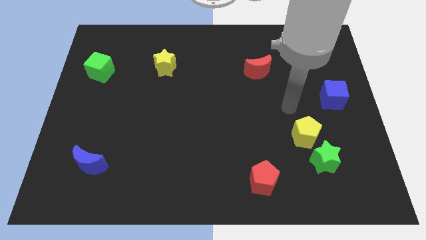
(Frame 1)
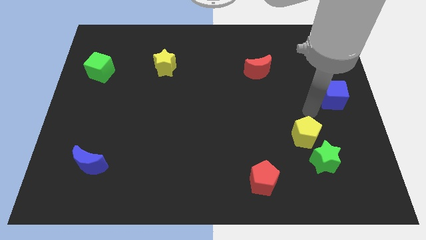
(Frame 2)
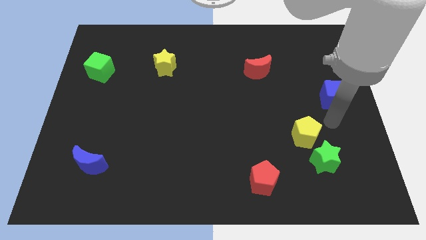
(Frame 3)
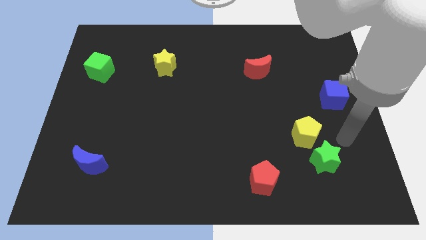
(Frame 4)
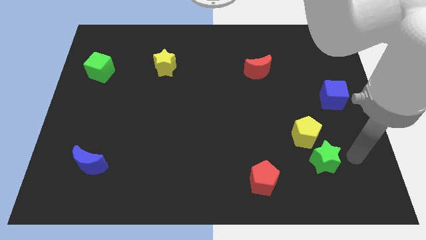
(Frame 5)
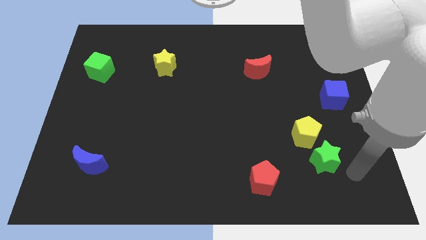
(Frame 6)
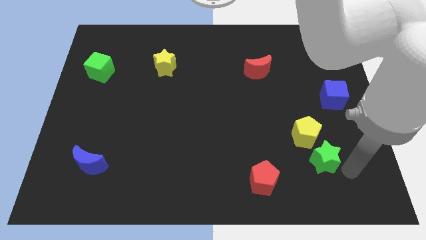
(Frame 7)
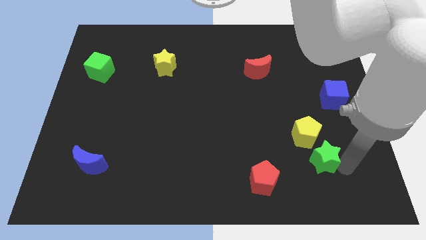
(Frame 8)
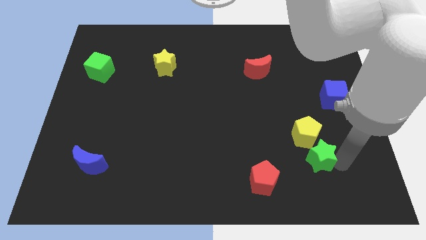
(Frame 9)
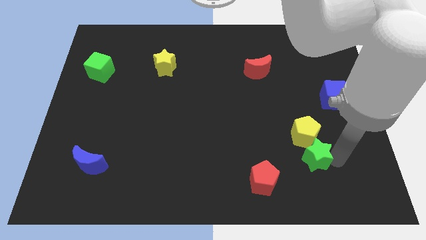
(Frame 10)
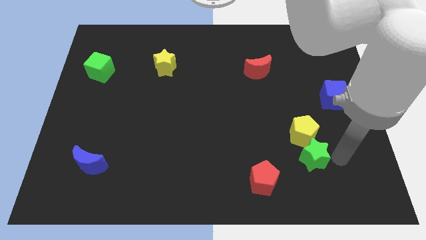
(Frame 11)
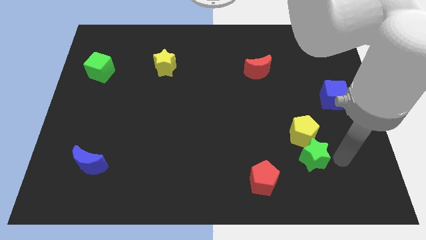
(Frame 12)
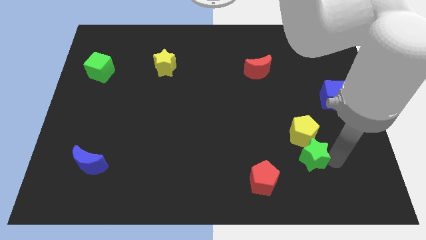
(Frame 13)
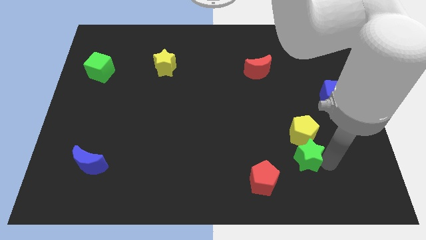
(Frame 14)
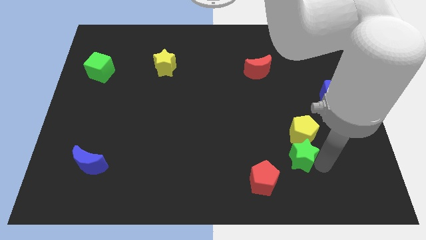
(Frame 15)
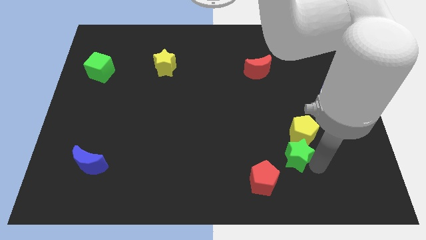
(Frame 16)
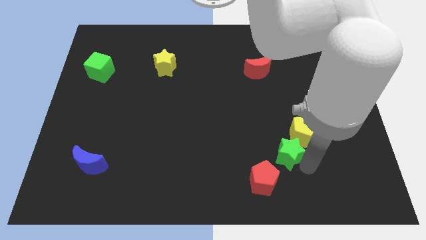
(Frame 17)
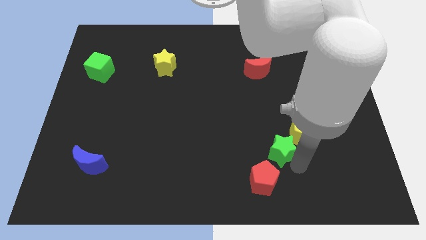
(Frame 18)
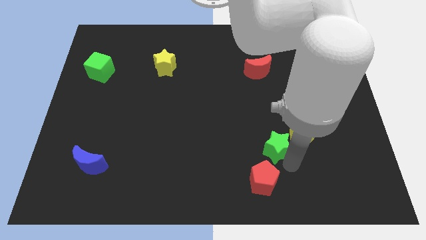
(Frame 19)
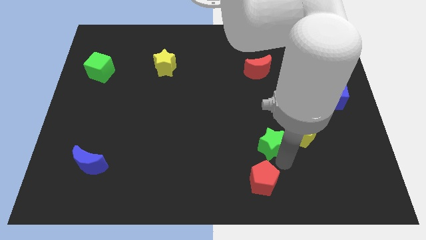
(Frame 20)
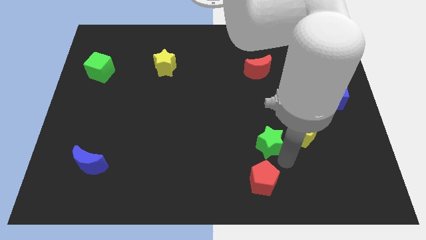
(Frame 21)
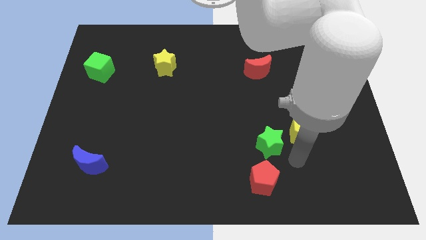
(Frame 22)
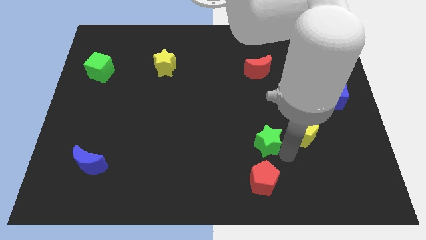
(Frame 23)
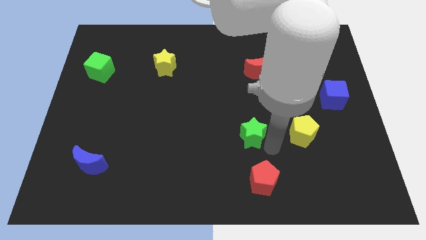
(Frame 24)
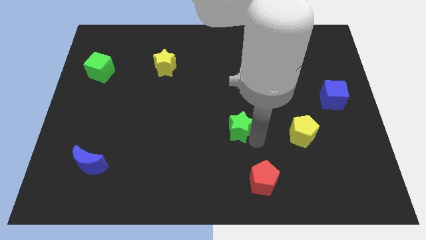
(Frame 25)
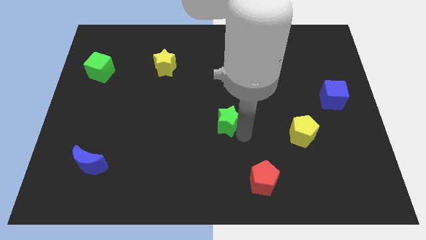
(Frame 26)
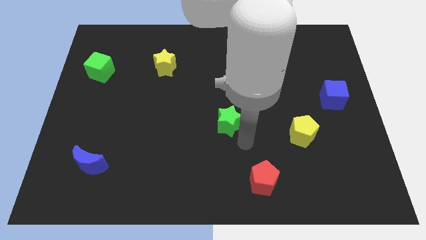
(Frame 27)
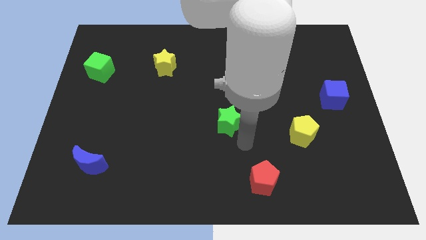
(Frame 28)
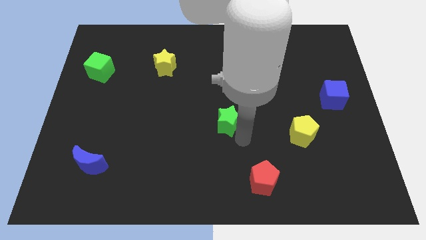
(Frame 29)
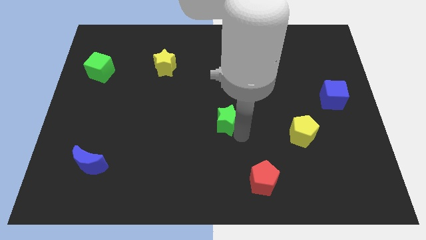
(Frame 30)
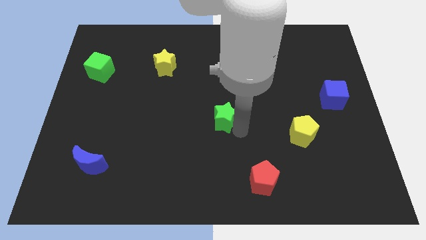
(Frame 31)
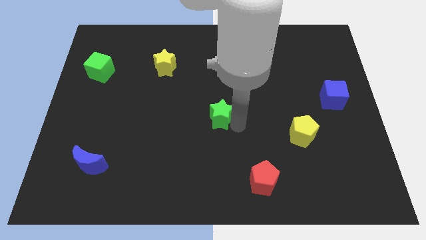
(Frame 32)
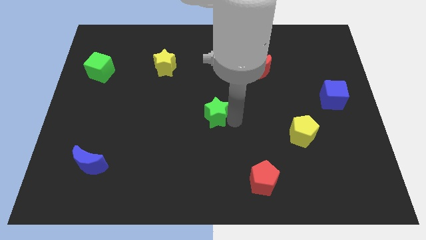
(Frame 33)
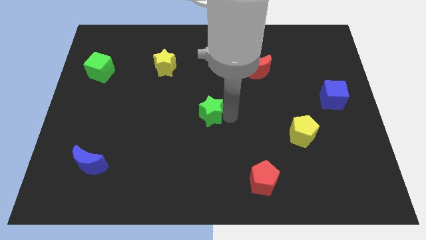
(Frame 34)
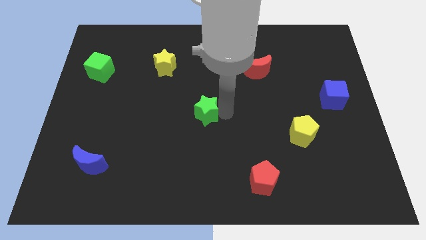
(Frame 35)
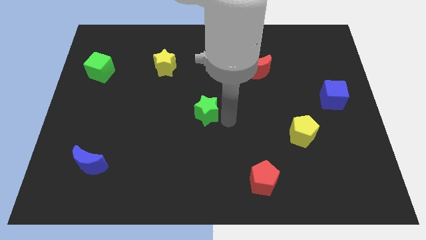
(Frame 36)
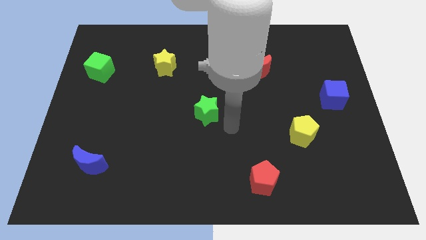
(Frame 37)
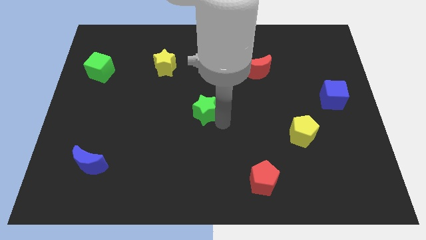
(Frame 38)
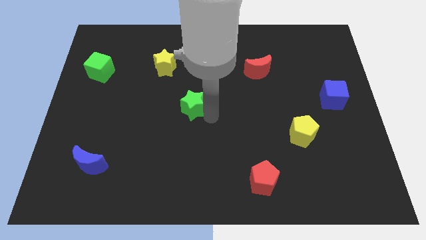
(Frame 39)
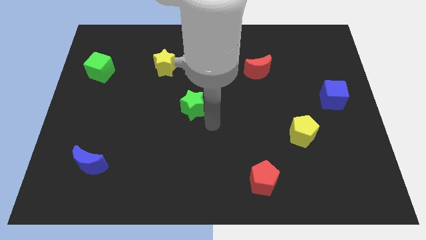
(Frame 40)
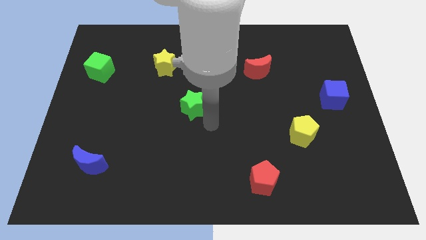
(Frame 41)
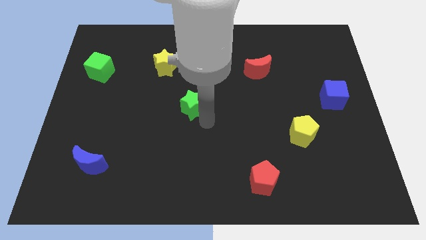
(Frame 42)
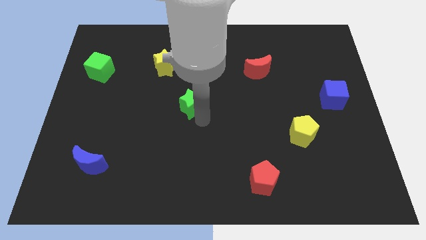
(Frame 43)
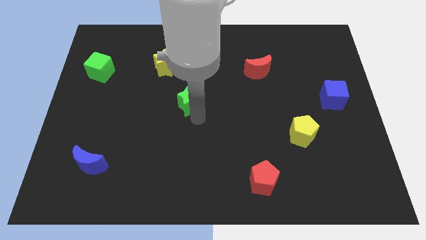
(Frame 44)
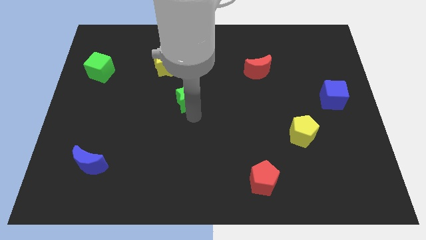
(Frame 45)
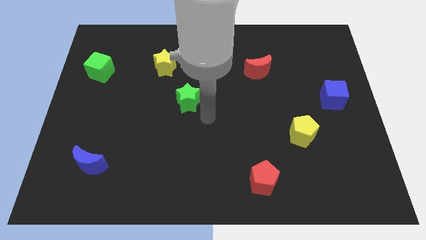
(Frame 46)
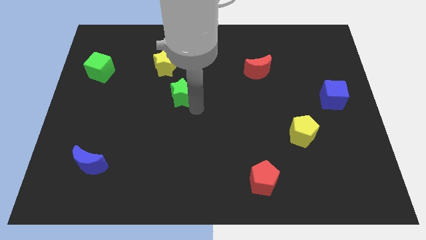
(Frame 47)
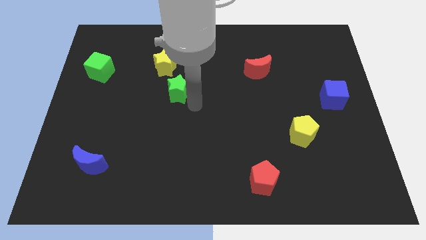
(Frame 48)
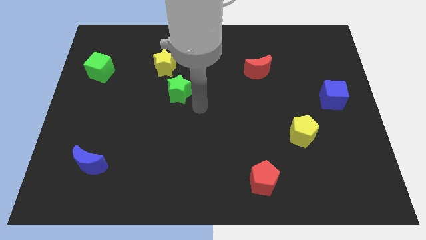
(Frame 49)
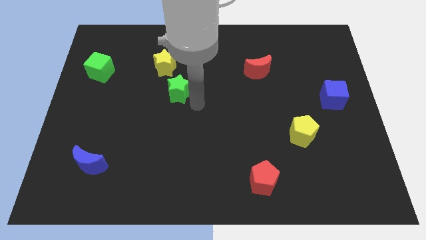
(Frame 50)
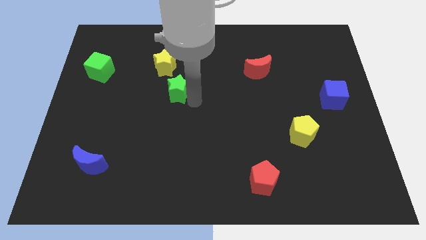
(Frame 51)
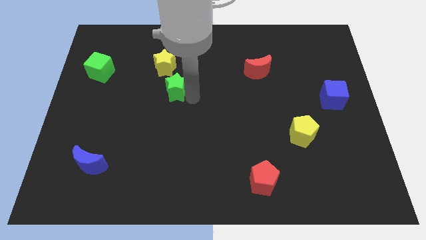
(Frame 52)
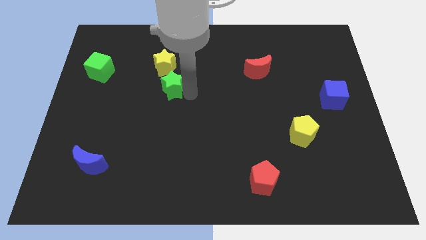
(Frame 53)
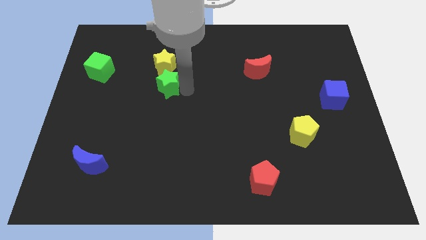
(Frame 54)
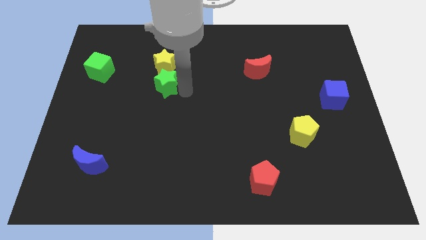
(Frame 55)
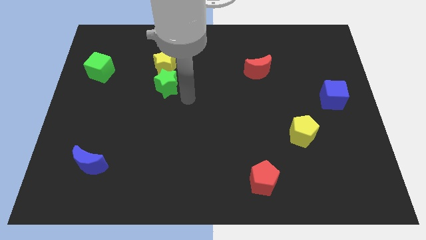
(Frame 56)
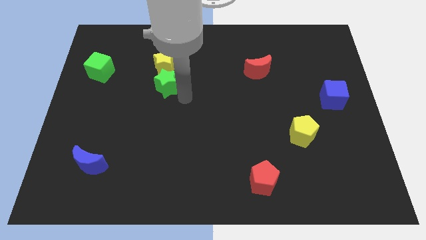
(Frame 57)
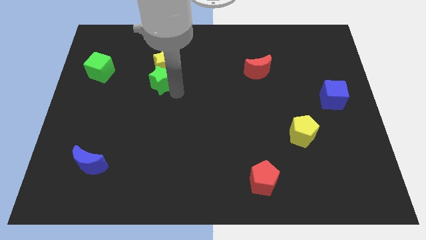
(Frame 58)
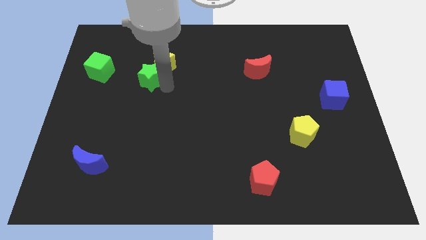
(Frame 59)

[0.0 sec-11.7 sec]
slide the green star right of the green cube

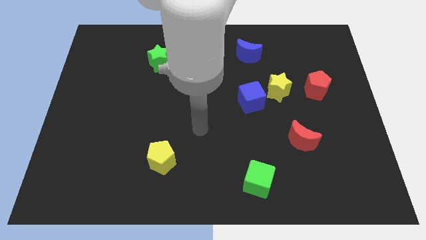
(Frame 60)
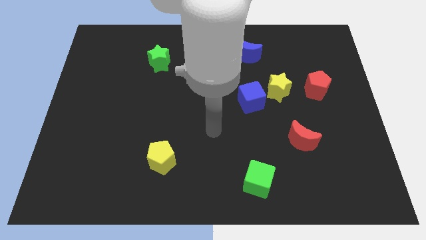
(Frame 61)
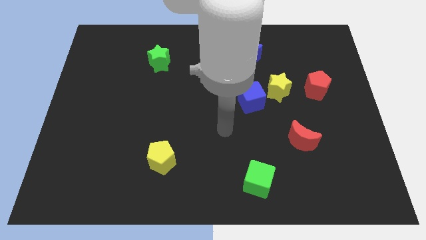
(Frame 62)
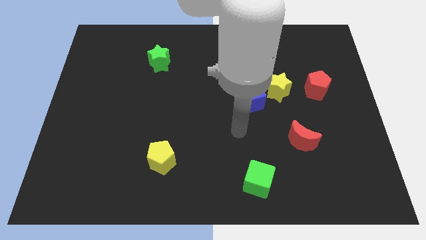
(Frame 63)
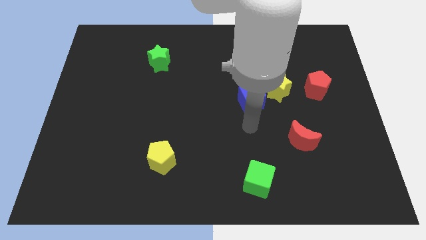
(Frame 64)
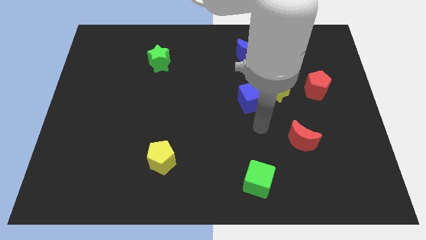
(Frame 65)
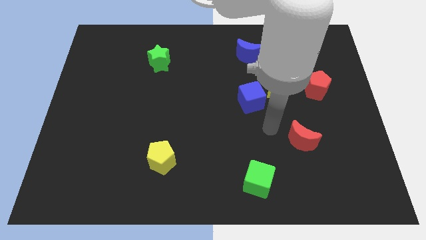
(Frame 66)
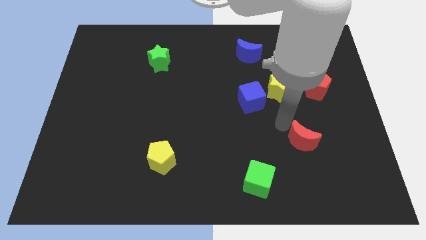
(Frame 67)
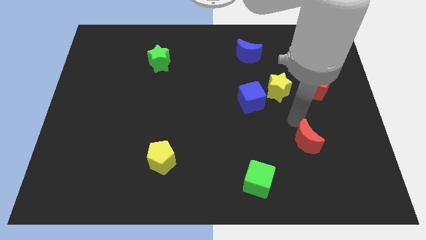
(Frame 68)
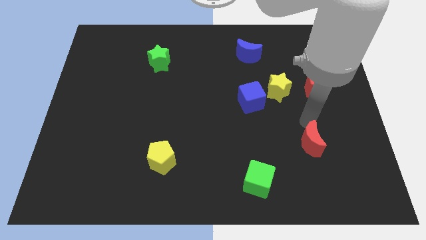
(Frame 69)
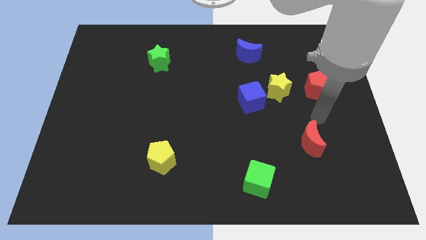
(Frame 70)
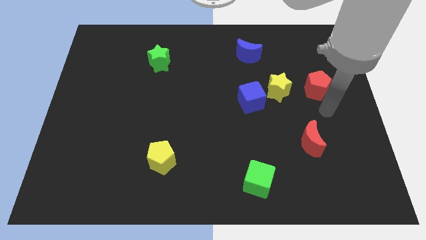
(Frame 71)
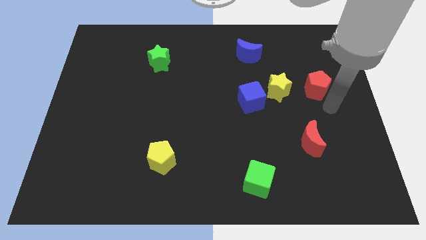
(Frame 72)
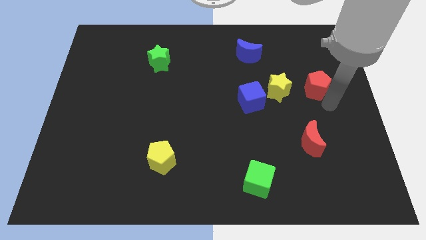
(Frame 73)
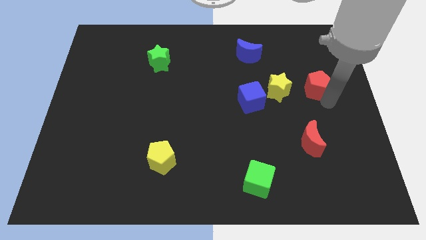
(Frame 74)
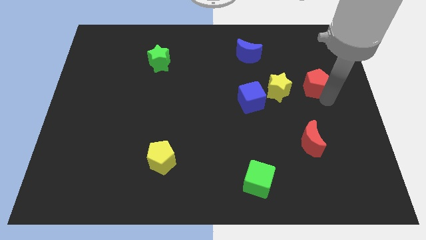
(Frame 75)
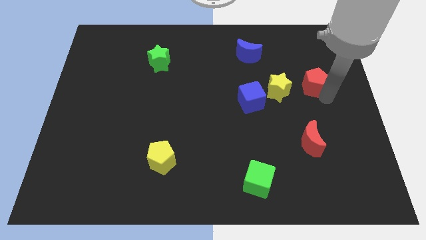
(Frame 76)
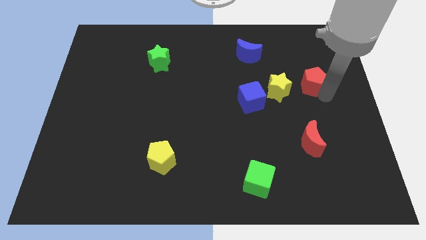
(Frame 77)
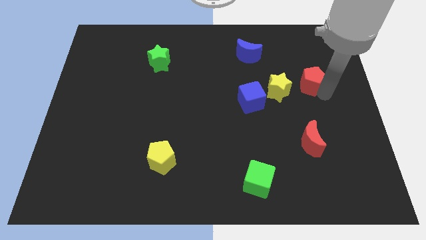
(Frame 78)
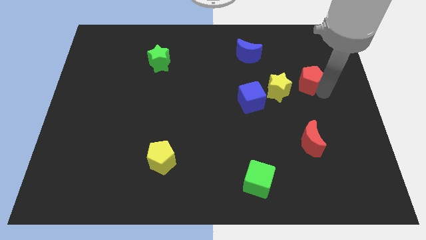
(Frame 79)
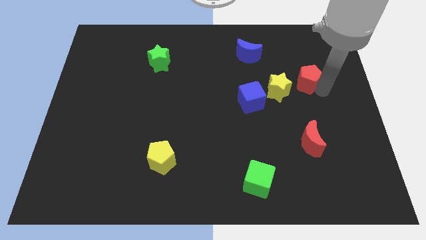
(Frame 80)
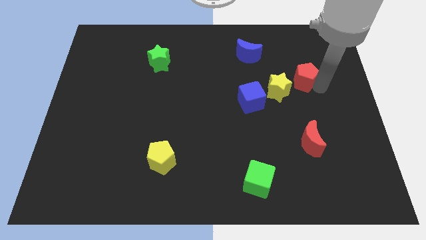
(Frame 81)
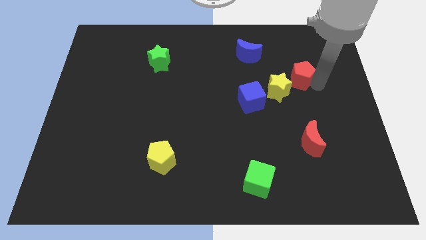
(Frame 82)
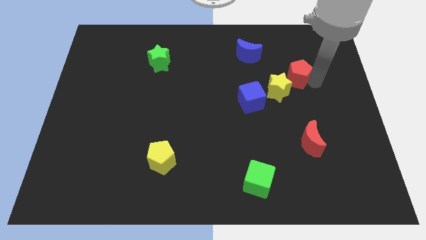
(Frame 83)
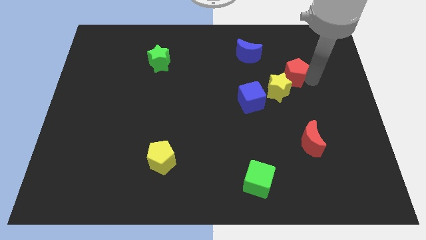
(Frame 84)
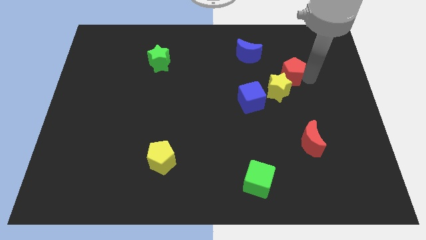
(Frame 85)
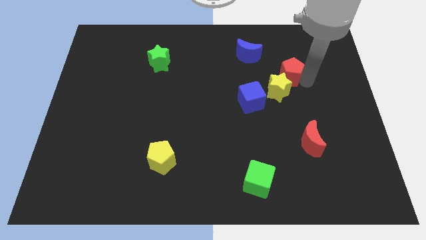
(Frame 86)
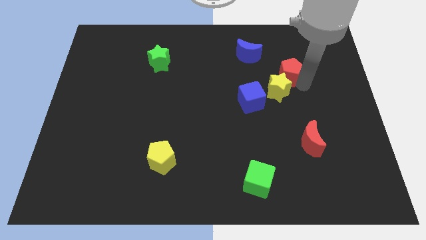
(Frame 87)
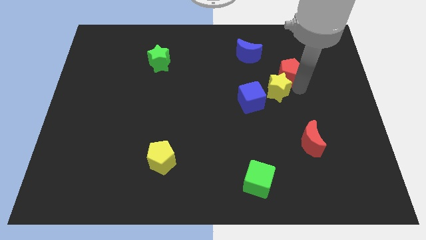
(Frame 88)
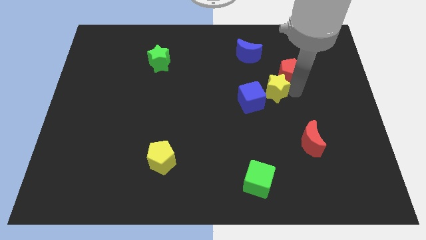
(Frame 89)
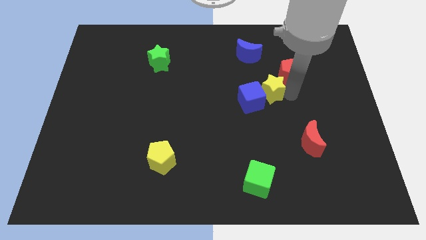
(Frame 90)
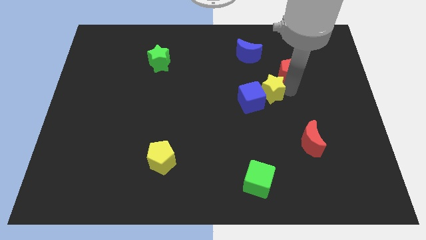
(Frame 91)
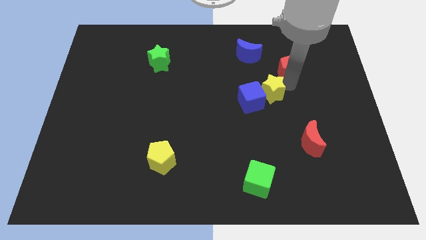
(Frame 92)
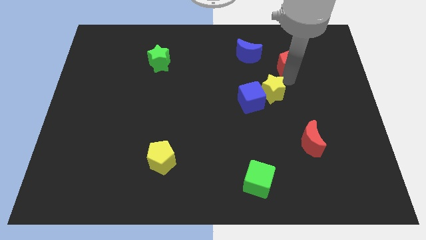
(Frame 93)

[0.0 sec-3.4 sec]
put the red pentagon just right of the blue moon
